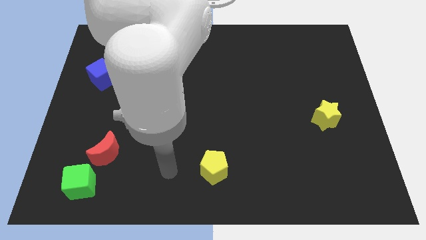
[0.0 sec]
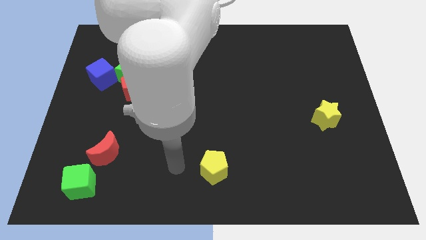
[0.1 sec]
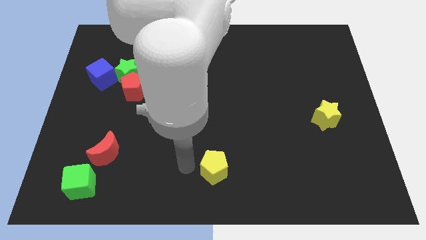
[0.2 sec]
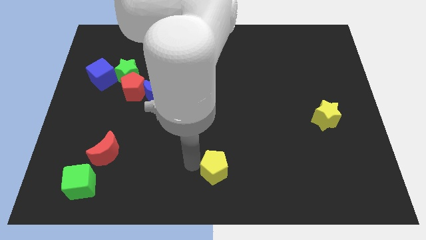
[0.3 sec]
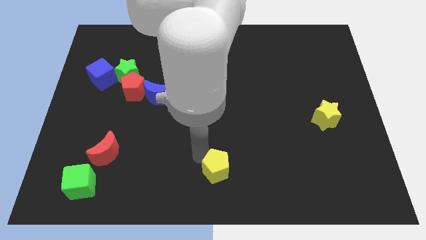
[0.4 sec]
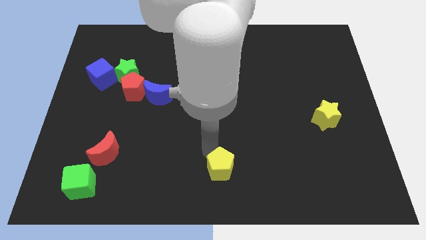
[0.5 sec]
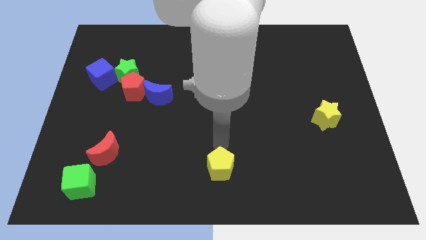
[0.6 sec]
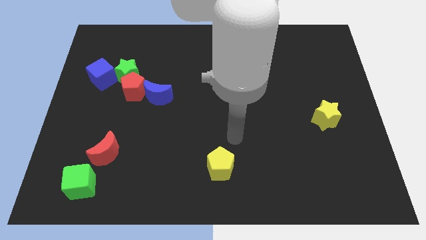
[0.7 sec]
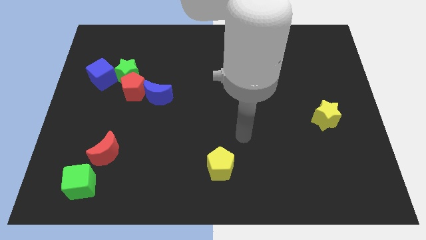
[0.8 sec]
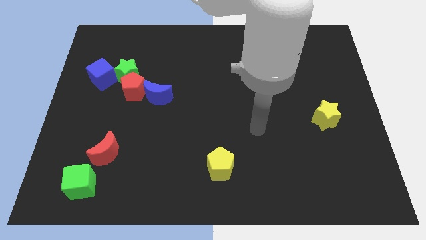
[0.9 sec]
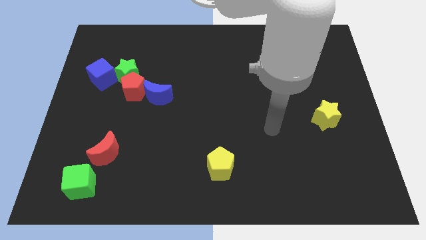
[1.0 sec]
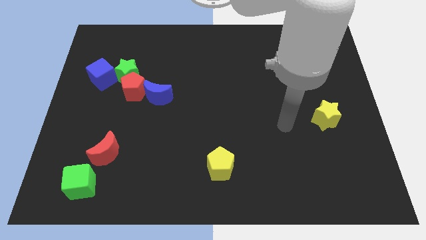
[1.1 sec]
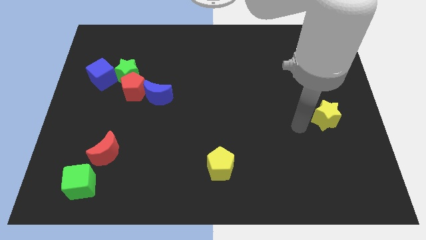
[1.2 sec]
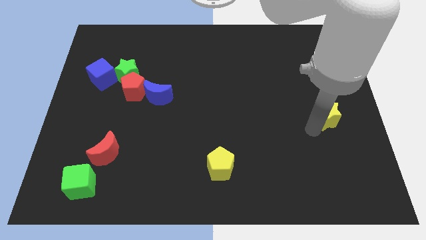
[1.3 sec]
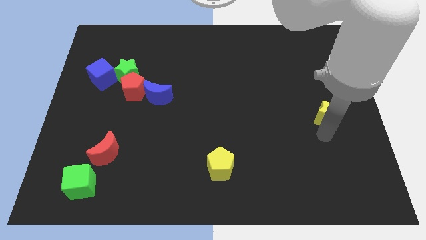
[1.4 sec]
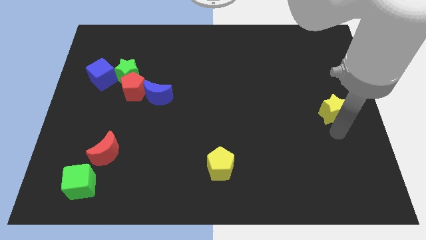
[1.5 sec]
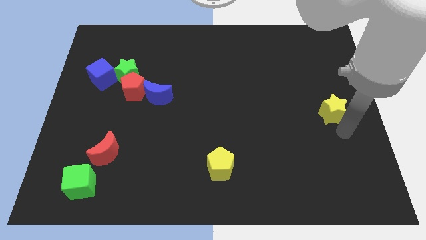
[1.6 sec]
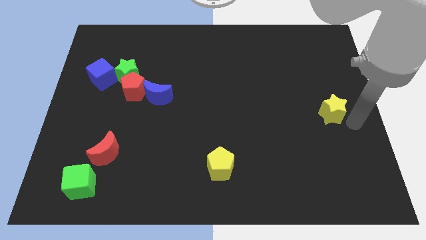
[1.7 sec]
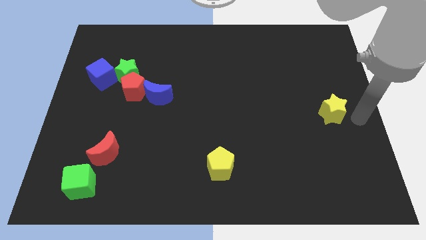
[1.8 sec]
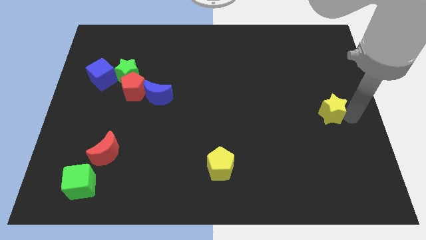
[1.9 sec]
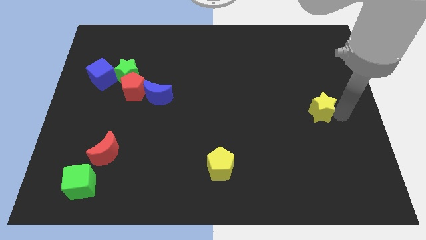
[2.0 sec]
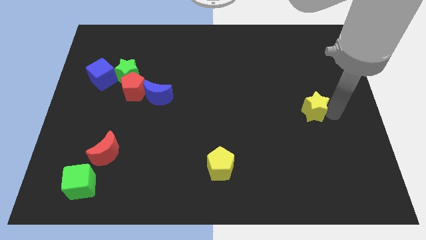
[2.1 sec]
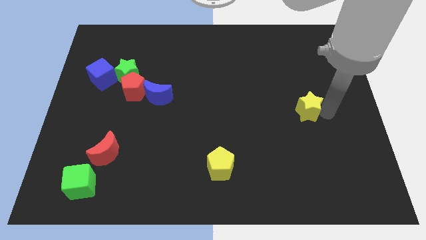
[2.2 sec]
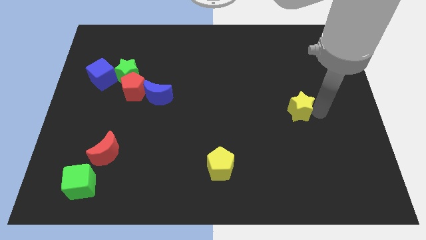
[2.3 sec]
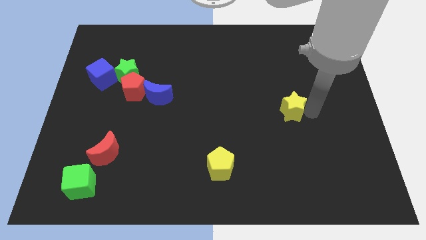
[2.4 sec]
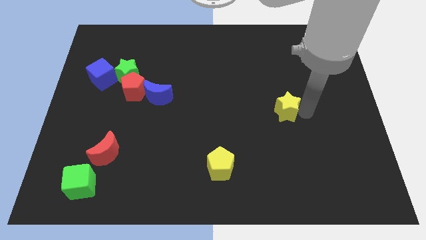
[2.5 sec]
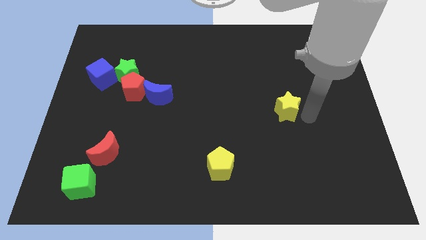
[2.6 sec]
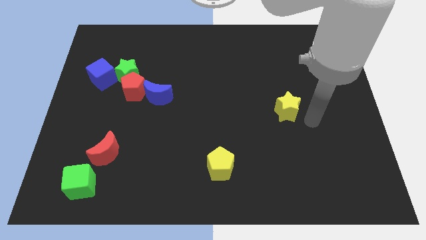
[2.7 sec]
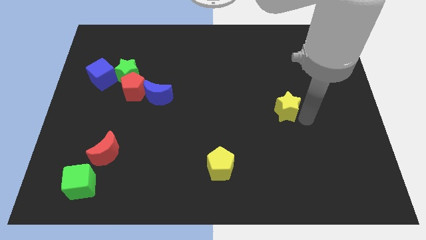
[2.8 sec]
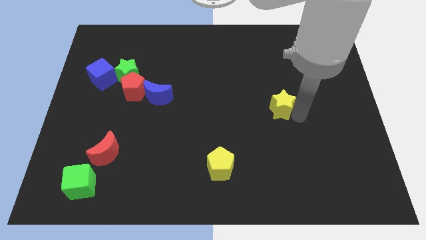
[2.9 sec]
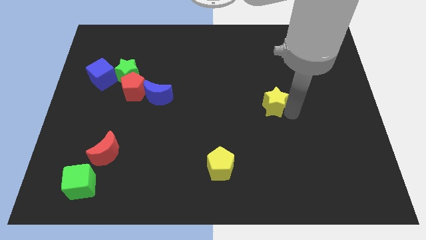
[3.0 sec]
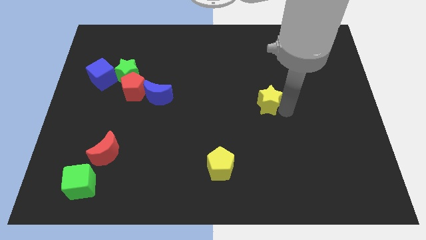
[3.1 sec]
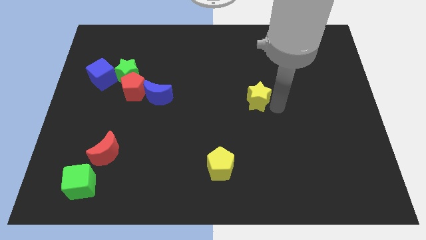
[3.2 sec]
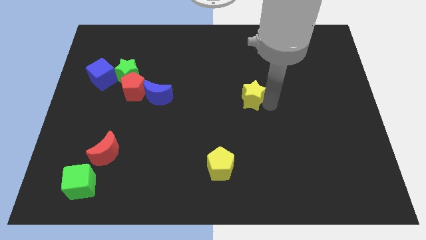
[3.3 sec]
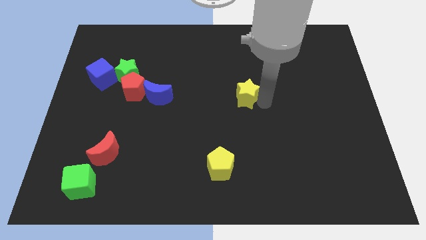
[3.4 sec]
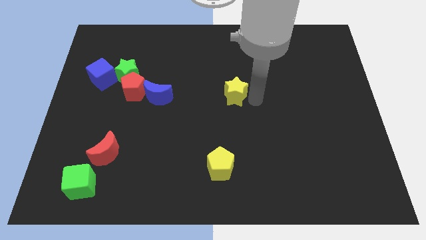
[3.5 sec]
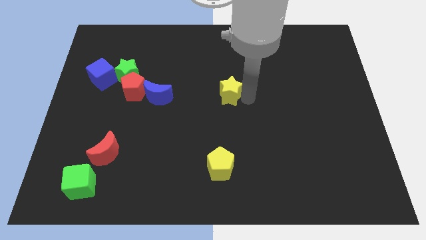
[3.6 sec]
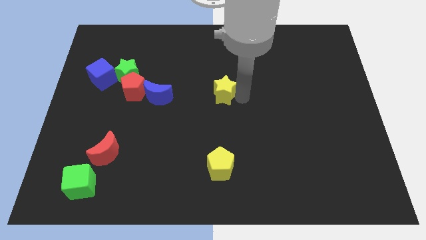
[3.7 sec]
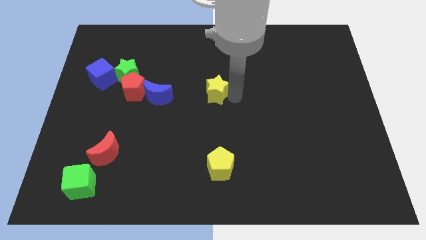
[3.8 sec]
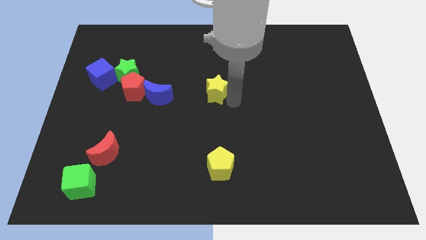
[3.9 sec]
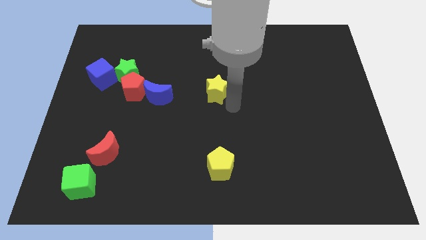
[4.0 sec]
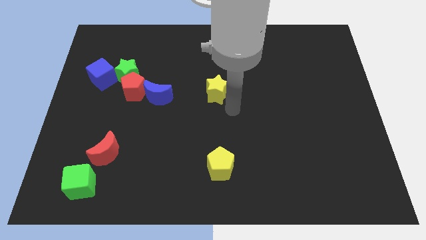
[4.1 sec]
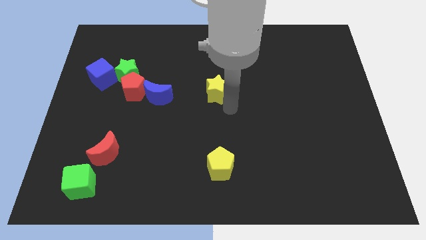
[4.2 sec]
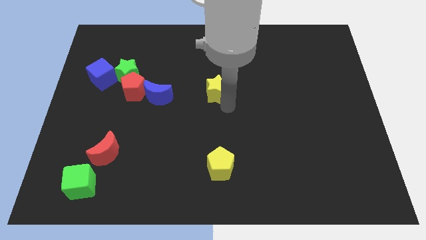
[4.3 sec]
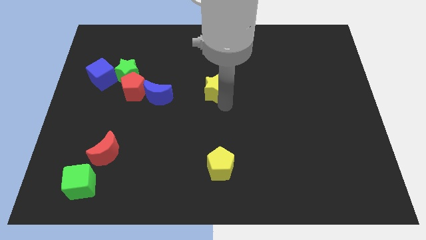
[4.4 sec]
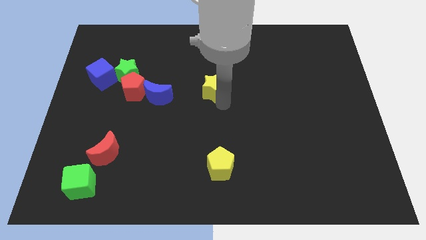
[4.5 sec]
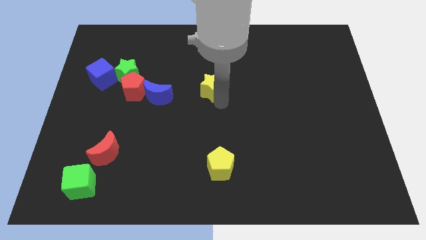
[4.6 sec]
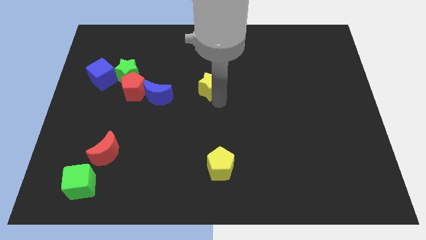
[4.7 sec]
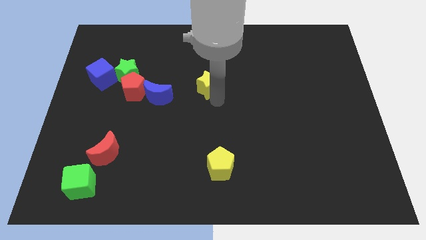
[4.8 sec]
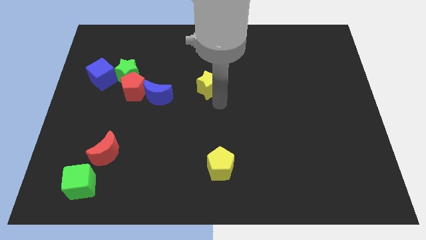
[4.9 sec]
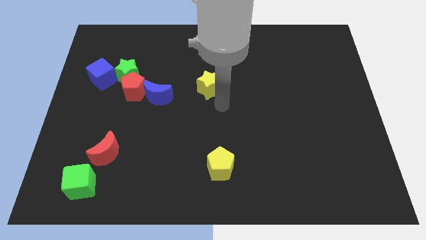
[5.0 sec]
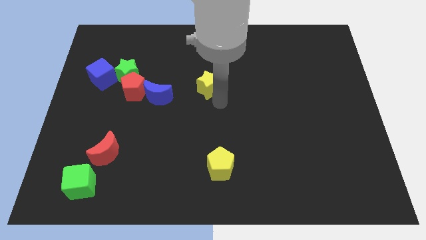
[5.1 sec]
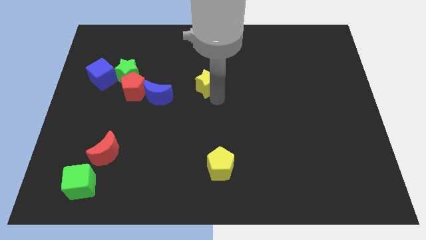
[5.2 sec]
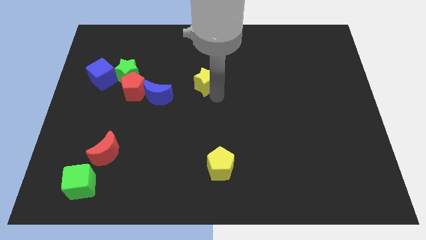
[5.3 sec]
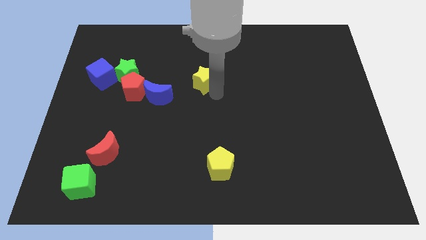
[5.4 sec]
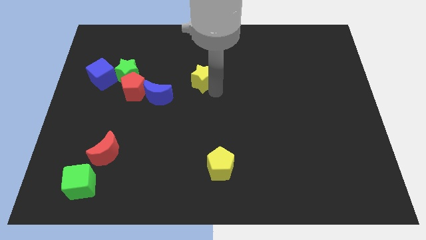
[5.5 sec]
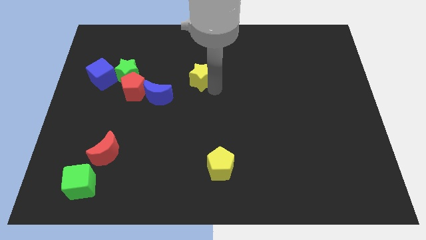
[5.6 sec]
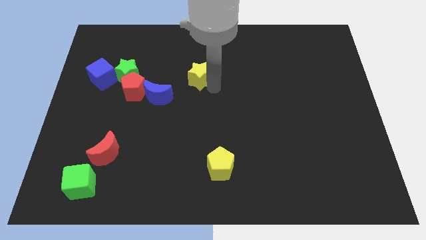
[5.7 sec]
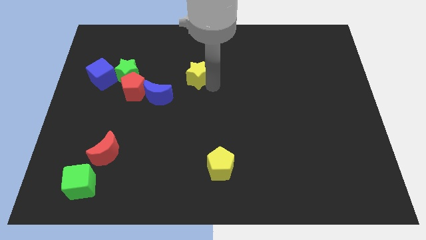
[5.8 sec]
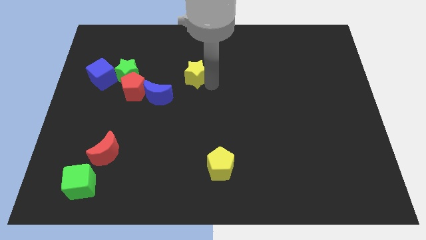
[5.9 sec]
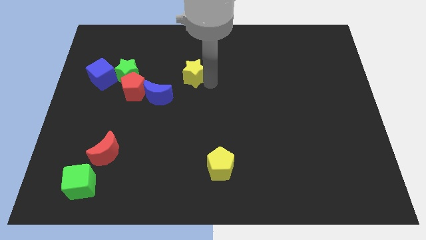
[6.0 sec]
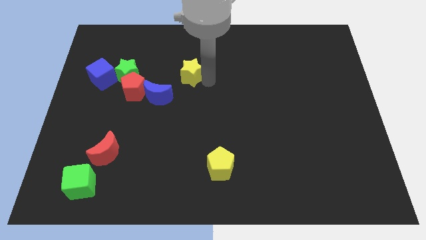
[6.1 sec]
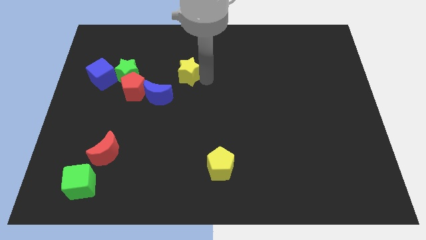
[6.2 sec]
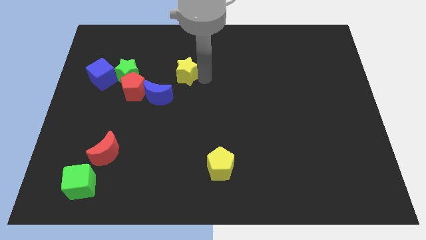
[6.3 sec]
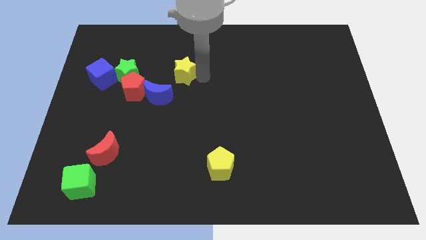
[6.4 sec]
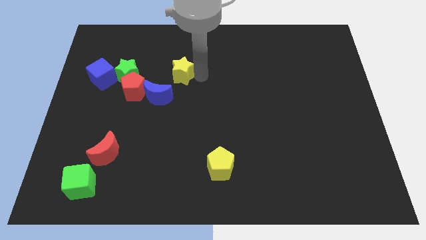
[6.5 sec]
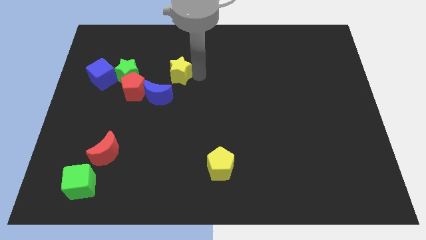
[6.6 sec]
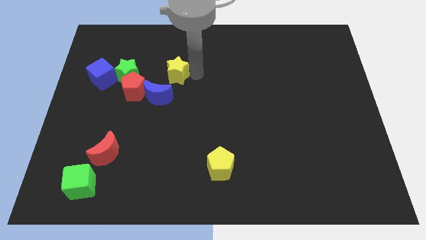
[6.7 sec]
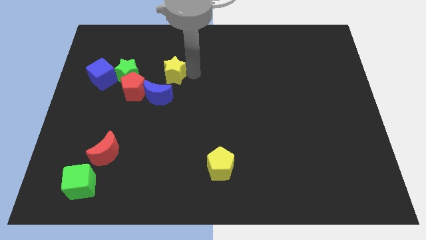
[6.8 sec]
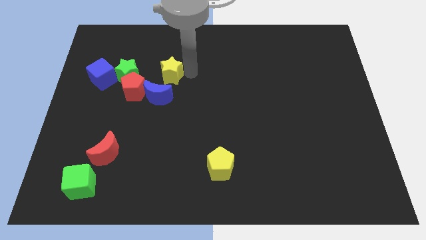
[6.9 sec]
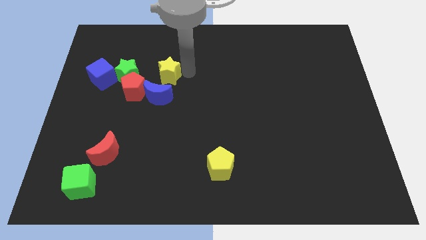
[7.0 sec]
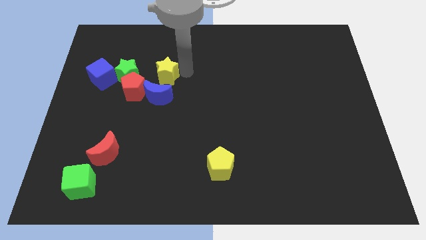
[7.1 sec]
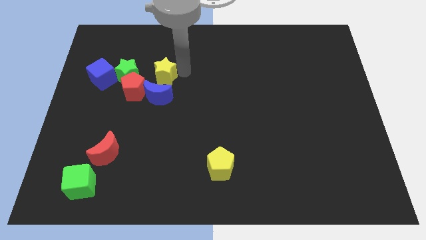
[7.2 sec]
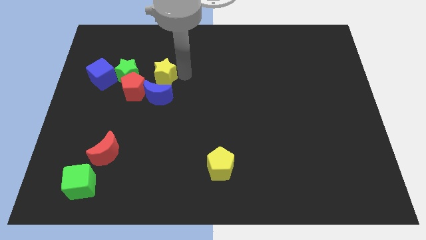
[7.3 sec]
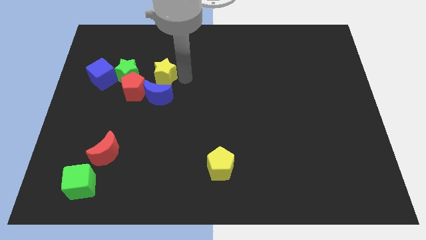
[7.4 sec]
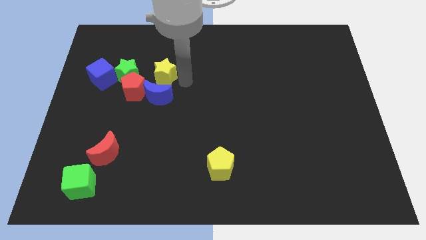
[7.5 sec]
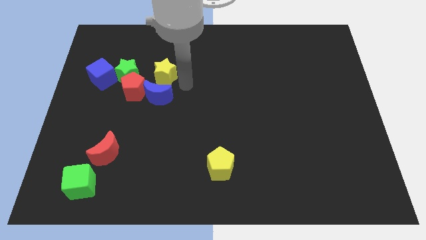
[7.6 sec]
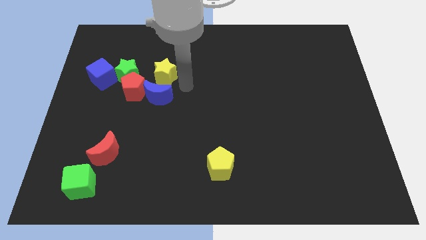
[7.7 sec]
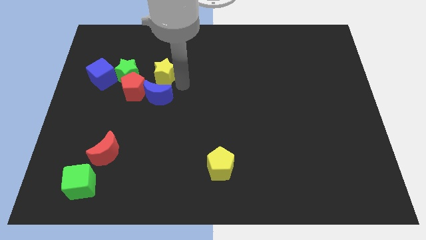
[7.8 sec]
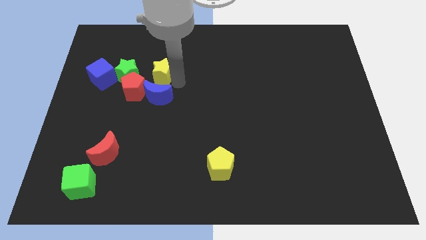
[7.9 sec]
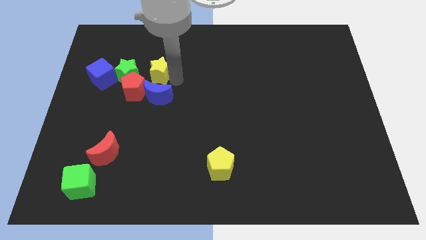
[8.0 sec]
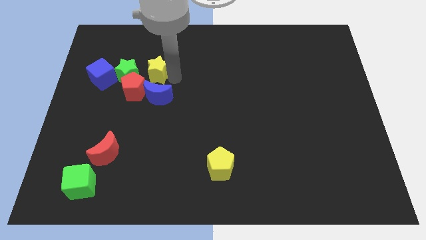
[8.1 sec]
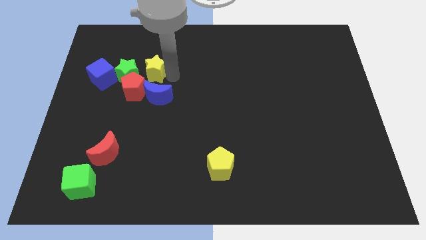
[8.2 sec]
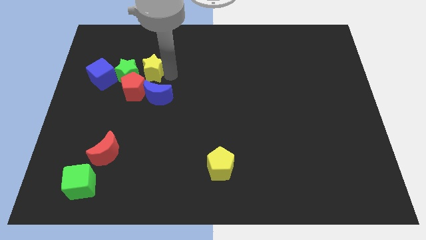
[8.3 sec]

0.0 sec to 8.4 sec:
put the yellow star close to the green star
